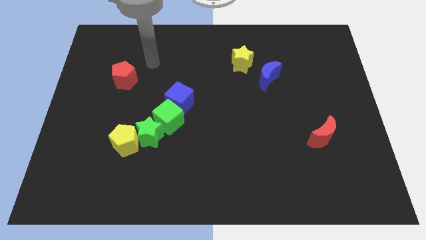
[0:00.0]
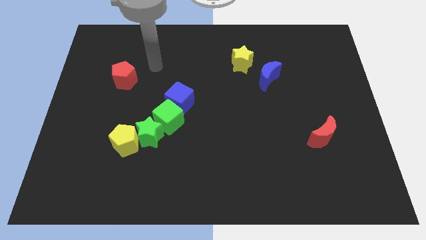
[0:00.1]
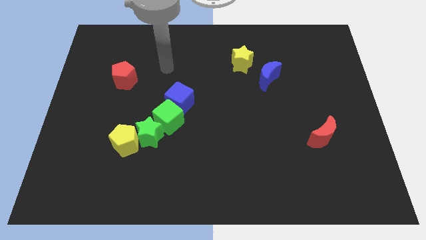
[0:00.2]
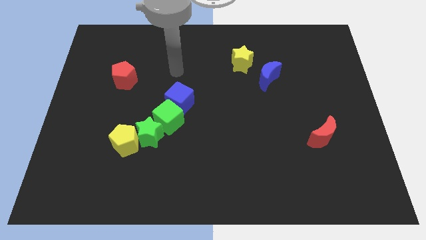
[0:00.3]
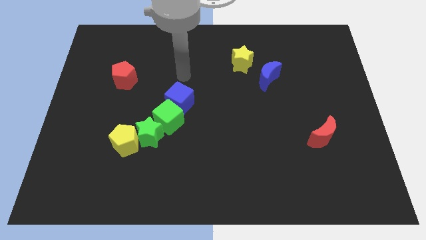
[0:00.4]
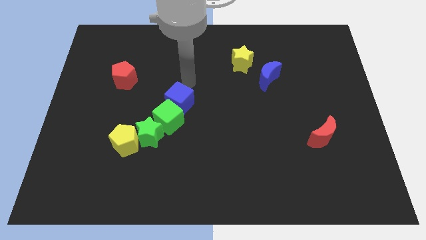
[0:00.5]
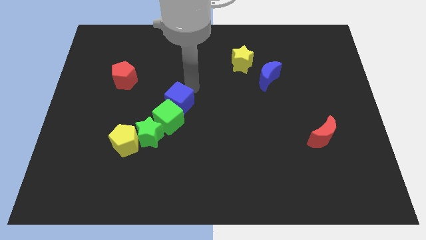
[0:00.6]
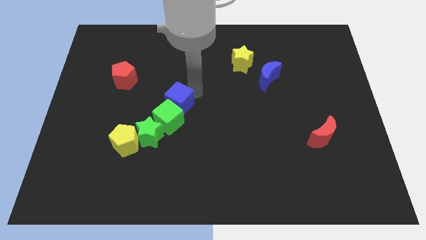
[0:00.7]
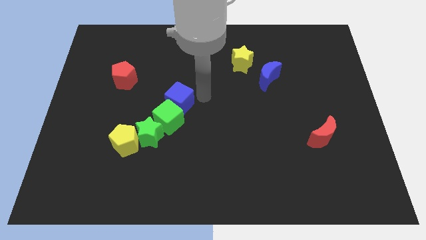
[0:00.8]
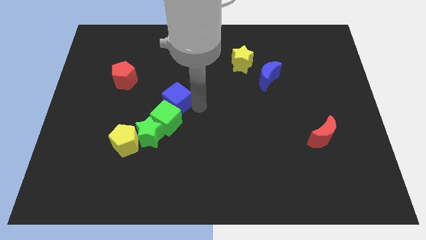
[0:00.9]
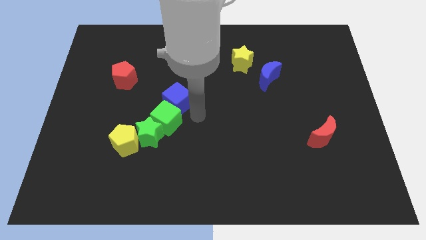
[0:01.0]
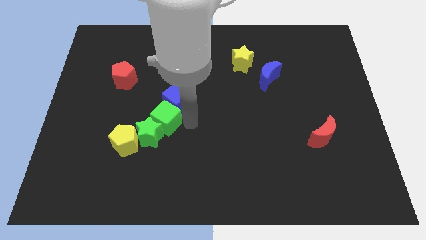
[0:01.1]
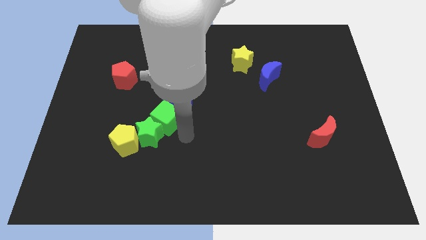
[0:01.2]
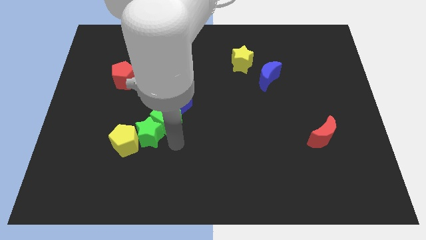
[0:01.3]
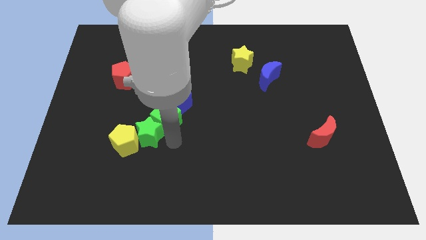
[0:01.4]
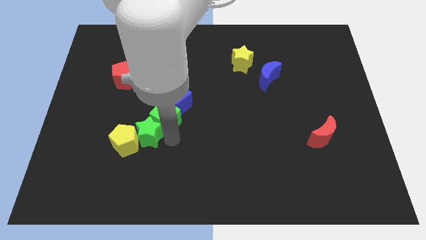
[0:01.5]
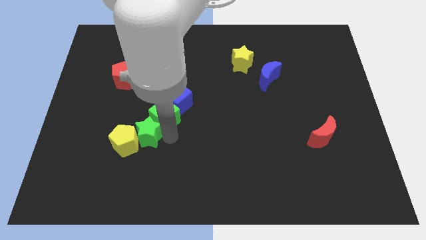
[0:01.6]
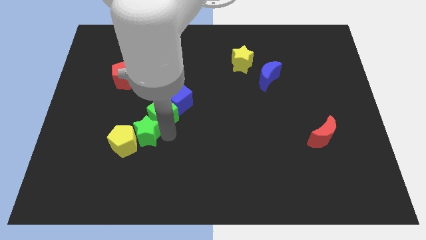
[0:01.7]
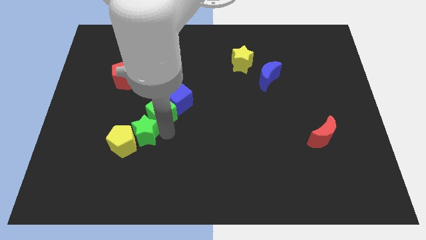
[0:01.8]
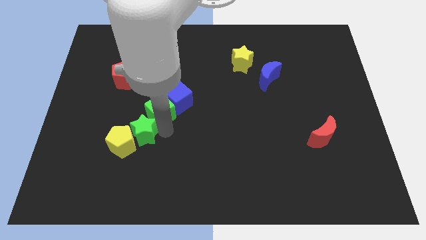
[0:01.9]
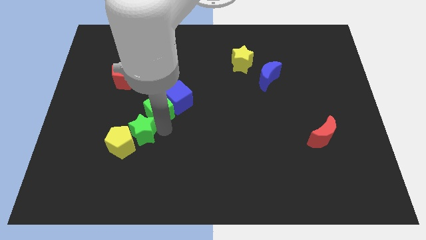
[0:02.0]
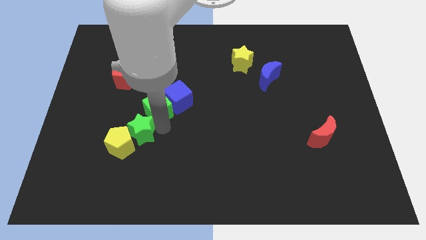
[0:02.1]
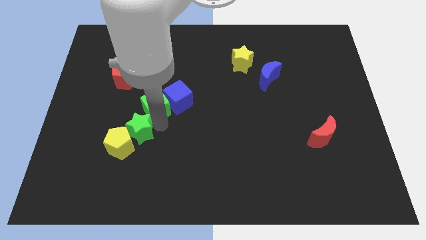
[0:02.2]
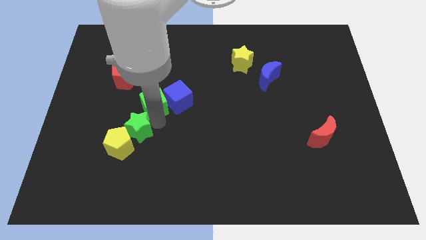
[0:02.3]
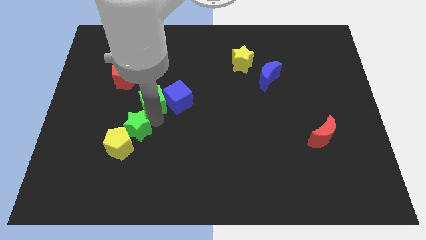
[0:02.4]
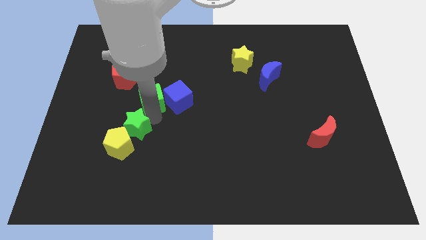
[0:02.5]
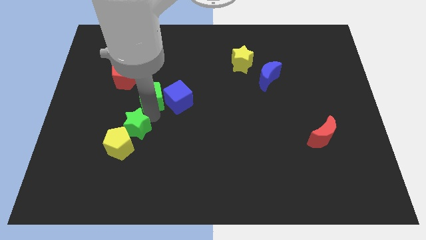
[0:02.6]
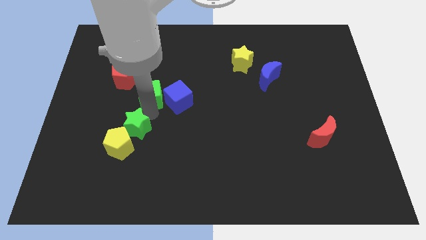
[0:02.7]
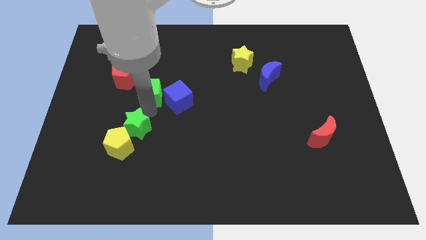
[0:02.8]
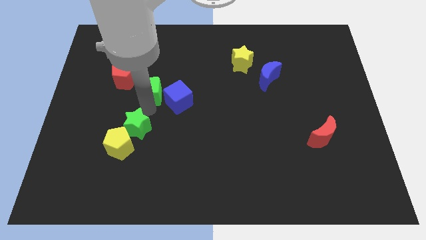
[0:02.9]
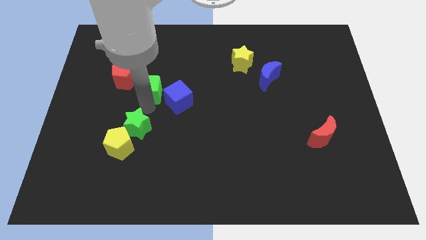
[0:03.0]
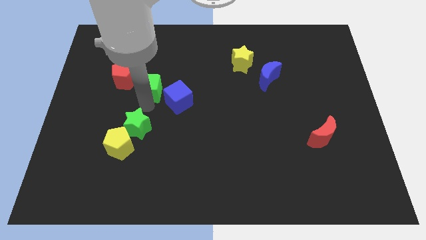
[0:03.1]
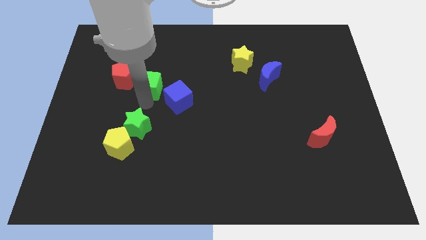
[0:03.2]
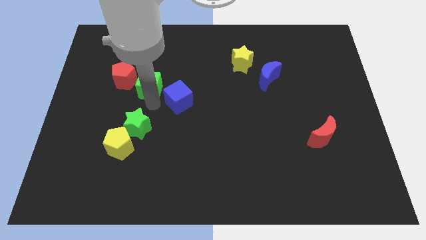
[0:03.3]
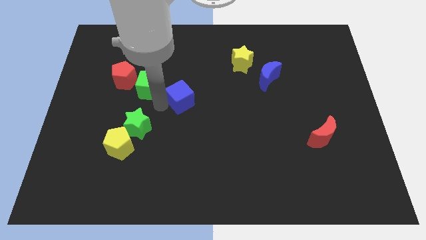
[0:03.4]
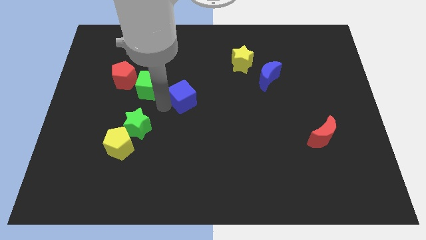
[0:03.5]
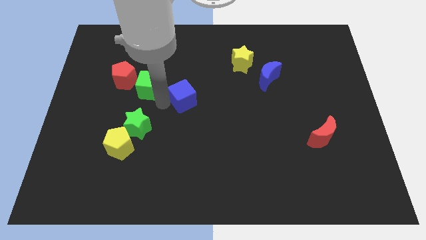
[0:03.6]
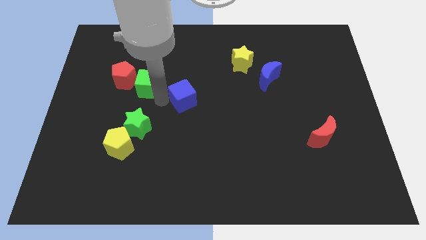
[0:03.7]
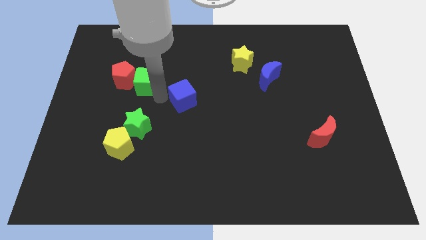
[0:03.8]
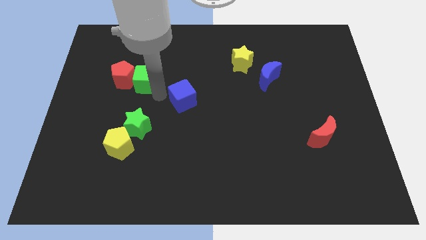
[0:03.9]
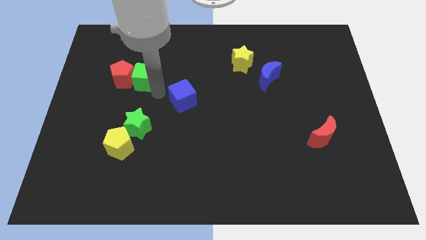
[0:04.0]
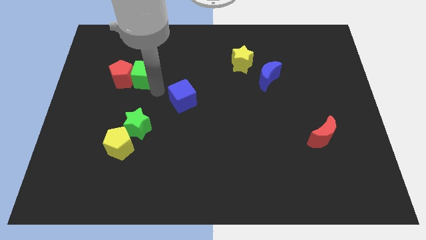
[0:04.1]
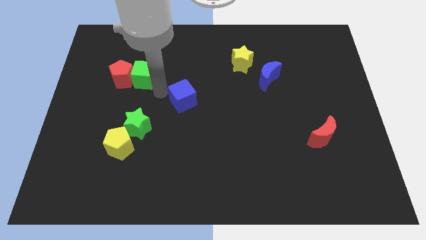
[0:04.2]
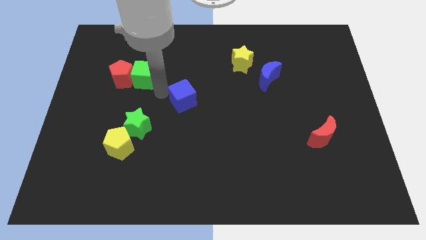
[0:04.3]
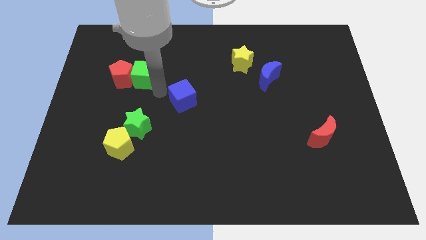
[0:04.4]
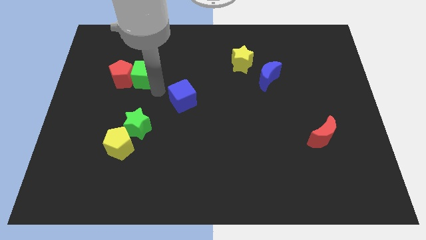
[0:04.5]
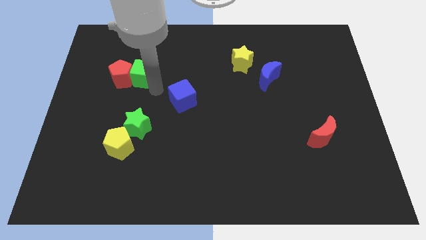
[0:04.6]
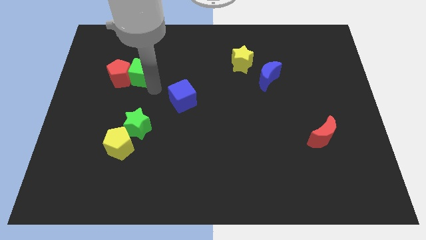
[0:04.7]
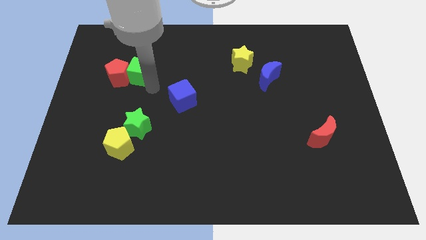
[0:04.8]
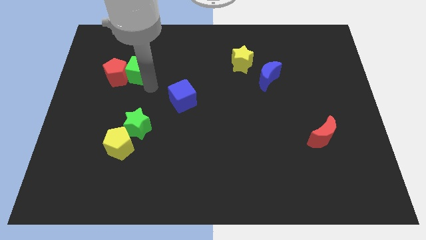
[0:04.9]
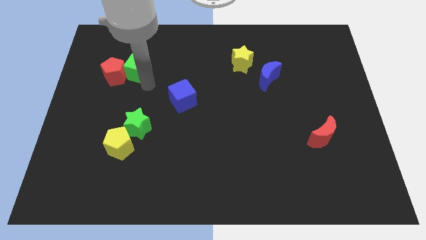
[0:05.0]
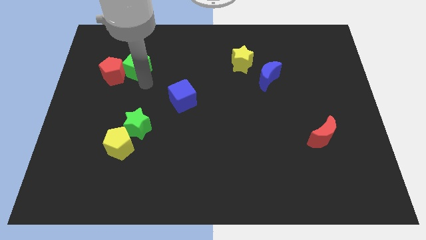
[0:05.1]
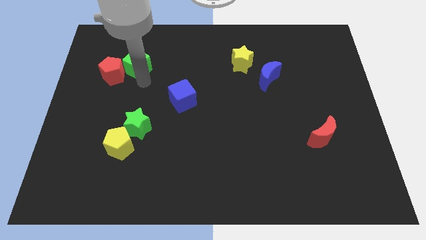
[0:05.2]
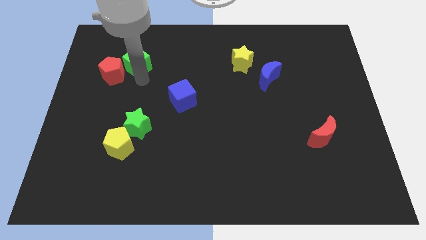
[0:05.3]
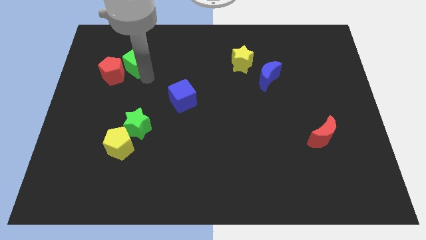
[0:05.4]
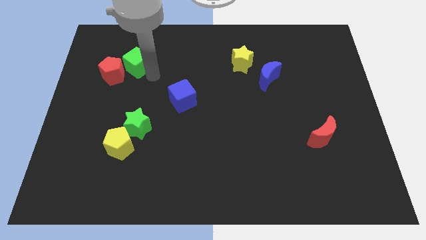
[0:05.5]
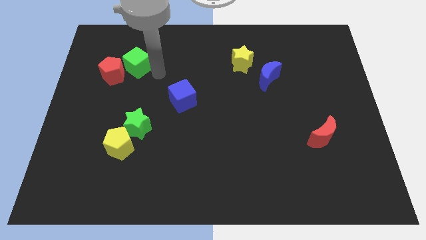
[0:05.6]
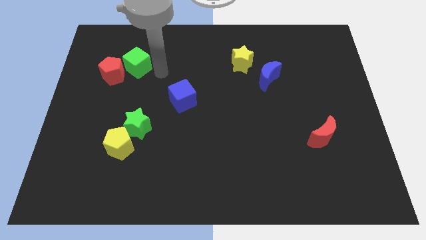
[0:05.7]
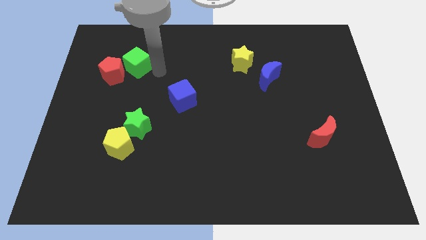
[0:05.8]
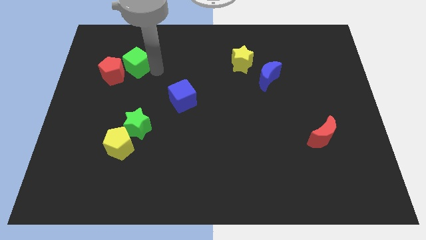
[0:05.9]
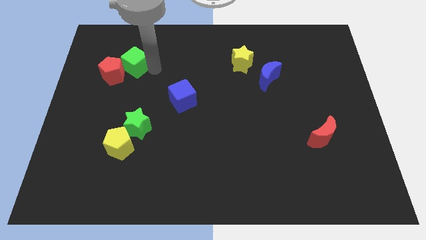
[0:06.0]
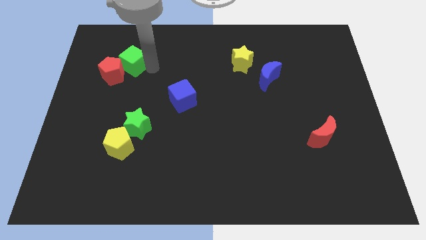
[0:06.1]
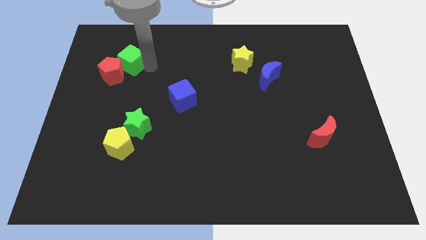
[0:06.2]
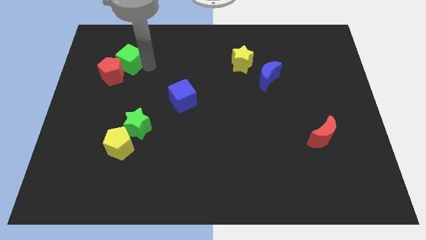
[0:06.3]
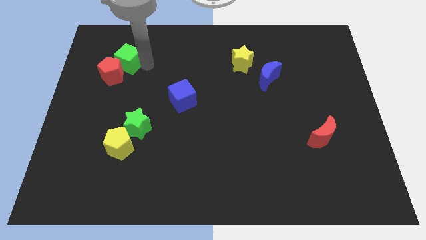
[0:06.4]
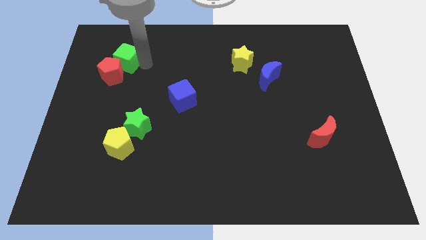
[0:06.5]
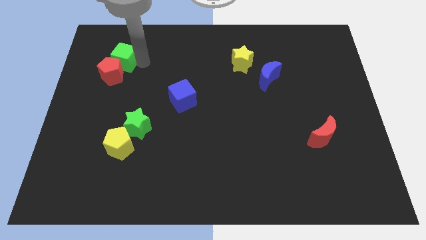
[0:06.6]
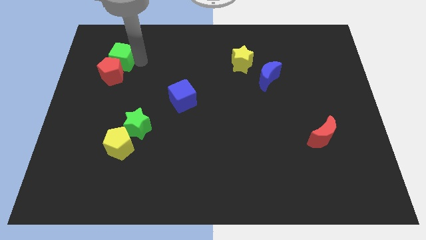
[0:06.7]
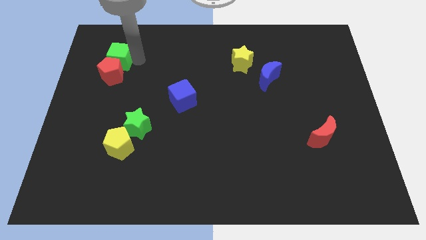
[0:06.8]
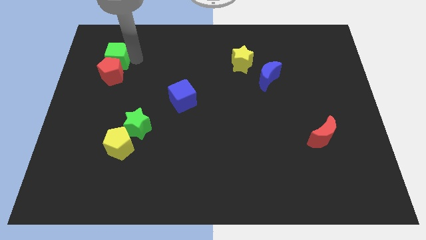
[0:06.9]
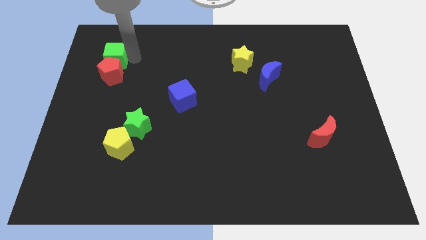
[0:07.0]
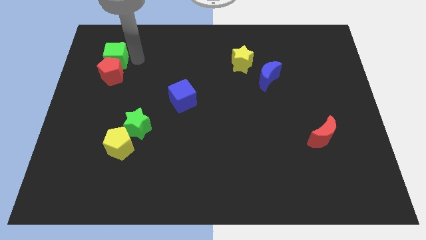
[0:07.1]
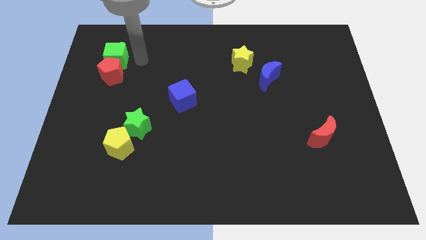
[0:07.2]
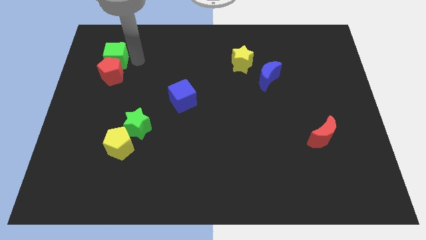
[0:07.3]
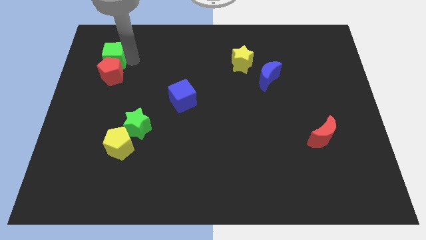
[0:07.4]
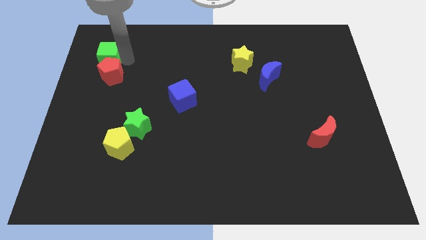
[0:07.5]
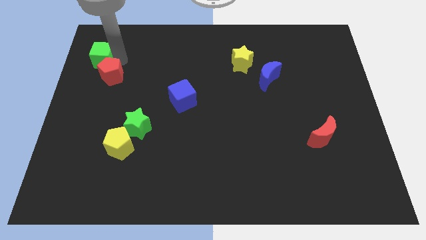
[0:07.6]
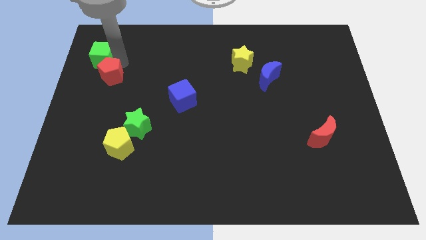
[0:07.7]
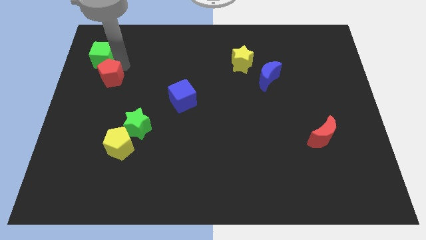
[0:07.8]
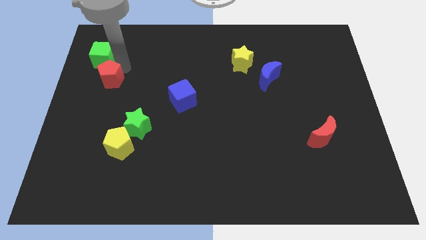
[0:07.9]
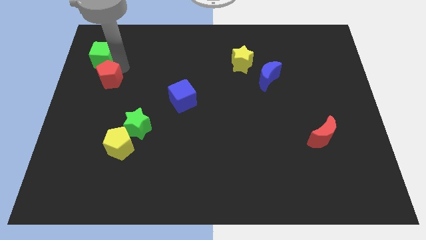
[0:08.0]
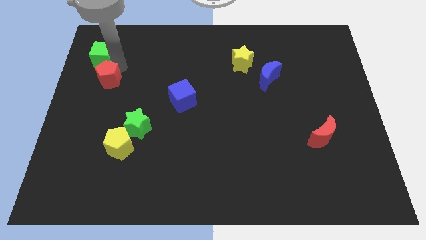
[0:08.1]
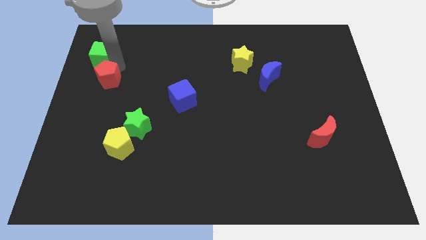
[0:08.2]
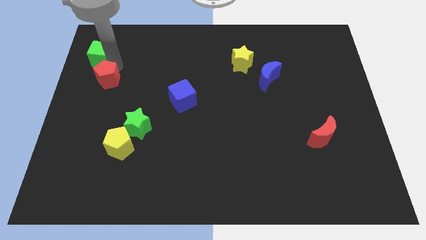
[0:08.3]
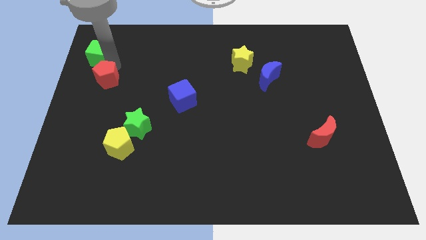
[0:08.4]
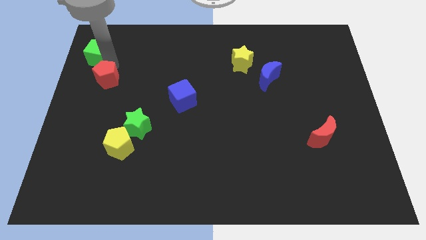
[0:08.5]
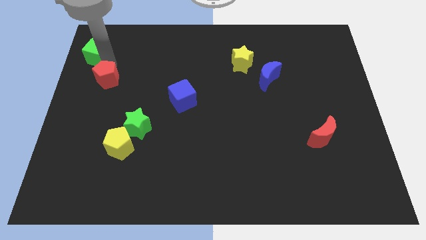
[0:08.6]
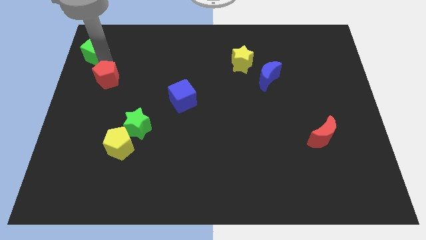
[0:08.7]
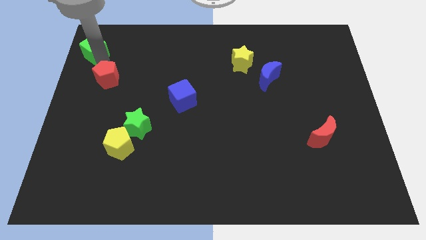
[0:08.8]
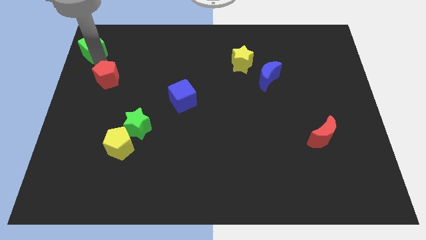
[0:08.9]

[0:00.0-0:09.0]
put the green cube to the upper left corner
